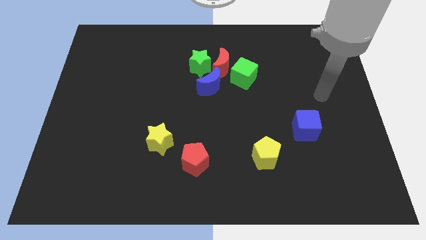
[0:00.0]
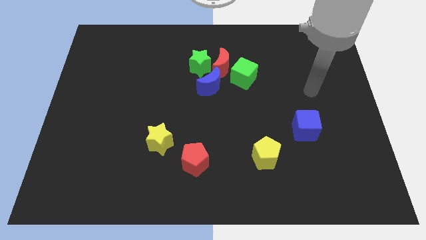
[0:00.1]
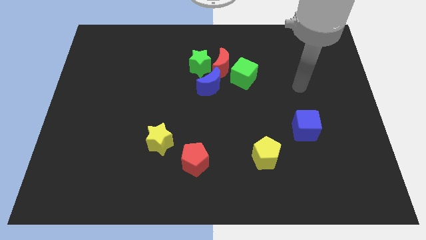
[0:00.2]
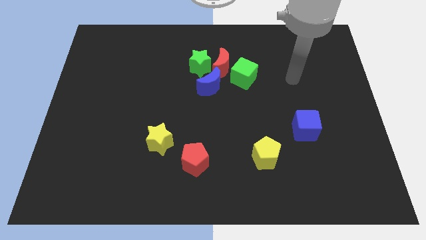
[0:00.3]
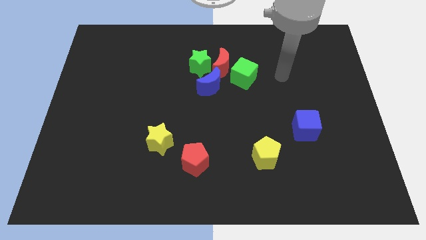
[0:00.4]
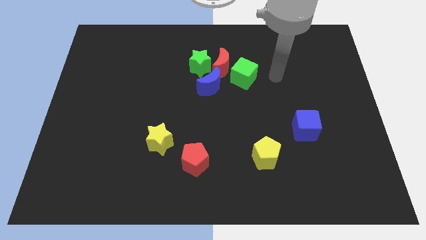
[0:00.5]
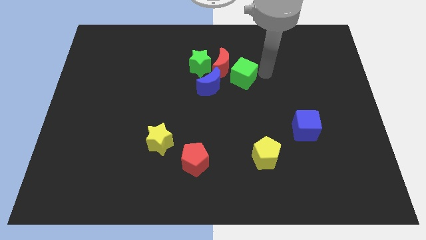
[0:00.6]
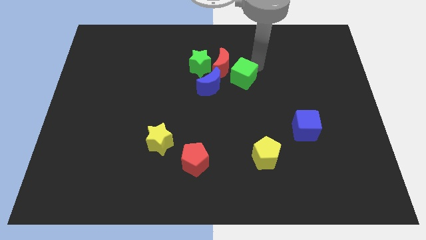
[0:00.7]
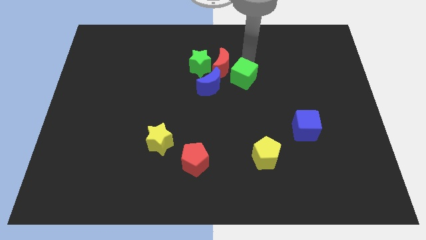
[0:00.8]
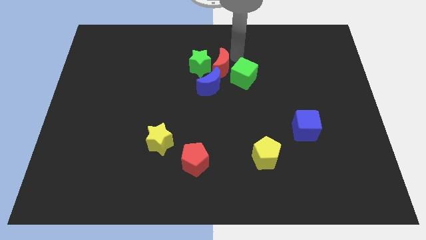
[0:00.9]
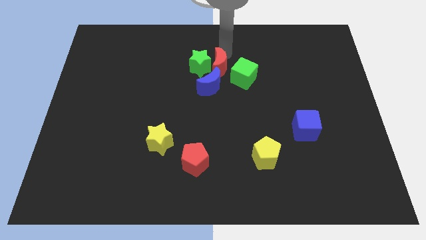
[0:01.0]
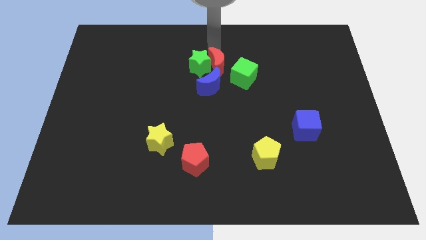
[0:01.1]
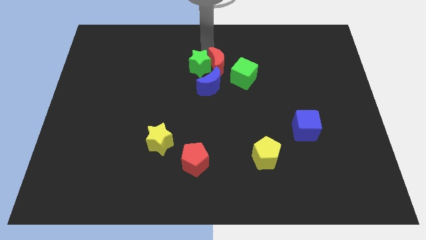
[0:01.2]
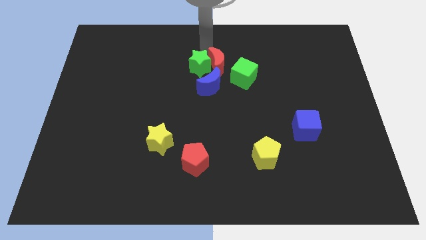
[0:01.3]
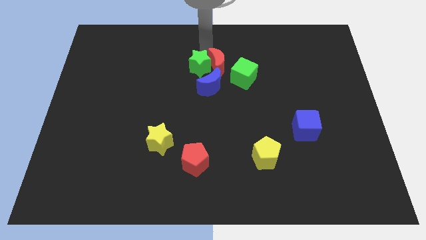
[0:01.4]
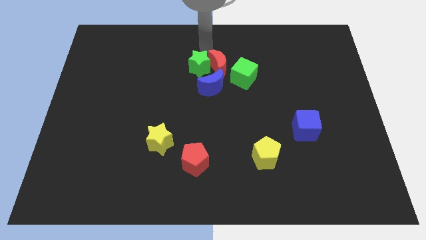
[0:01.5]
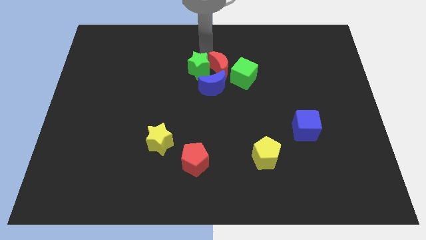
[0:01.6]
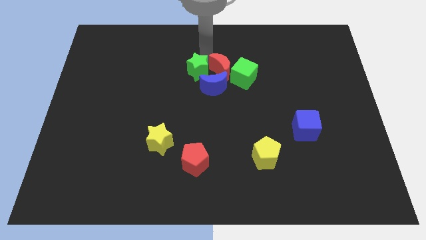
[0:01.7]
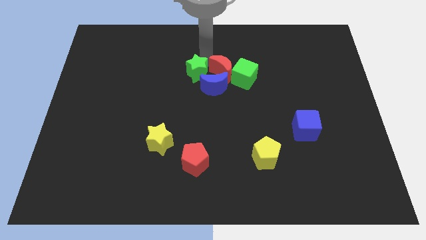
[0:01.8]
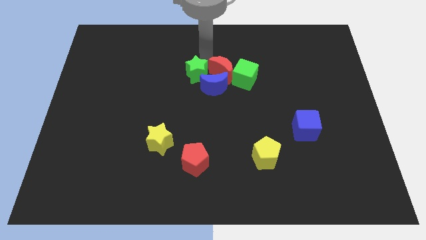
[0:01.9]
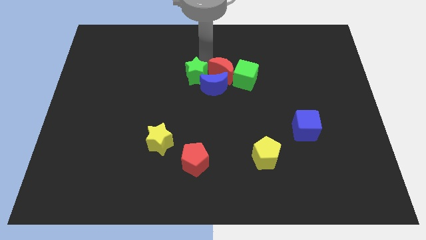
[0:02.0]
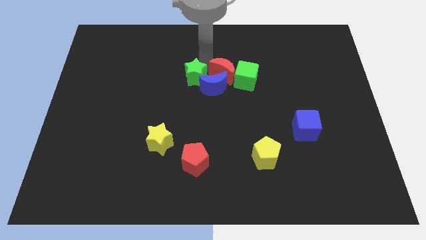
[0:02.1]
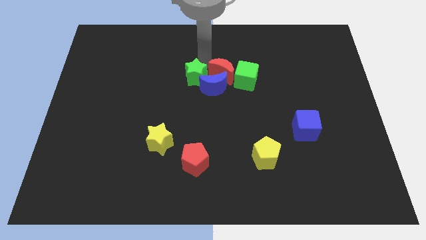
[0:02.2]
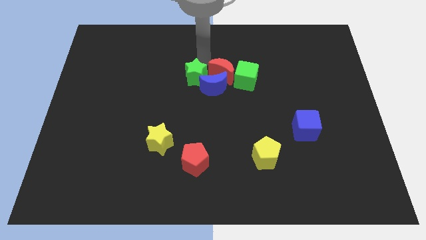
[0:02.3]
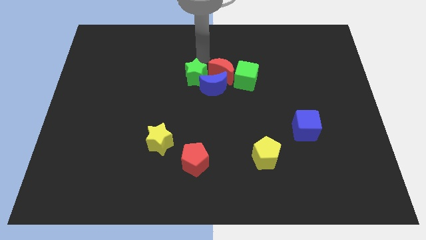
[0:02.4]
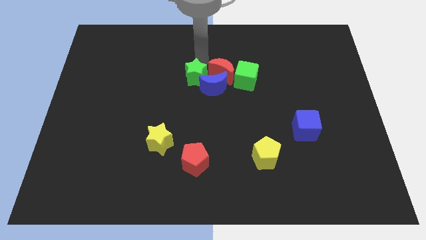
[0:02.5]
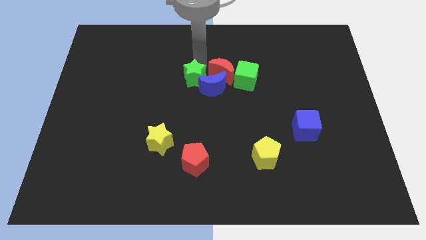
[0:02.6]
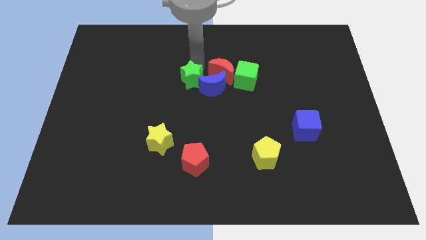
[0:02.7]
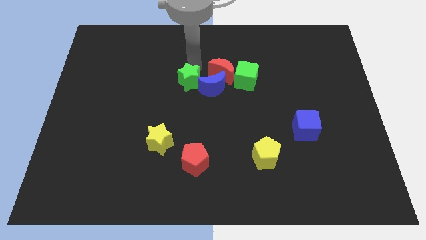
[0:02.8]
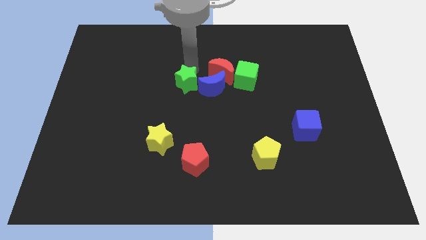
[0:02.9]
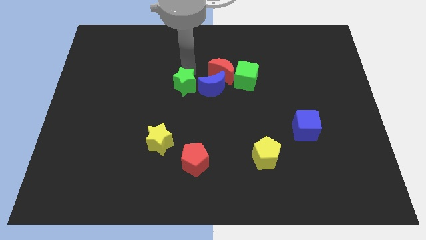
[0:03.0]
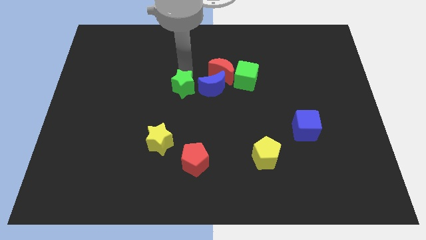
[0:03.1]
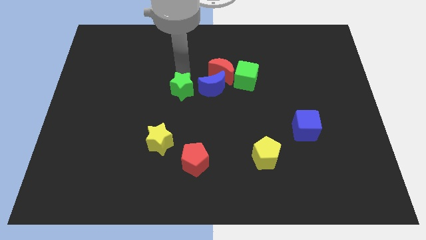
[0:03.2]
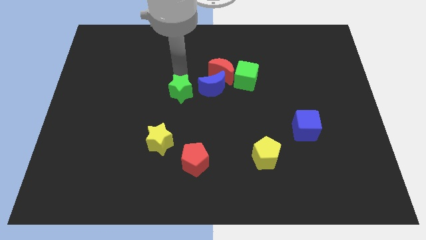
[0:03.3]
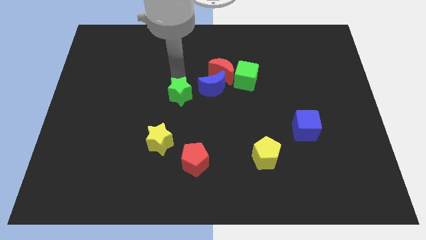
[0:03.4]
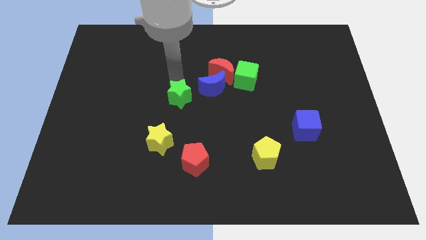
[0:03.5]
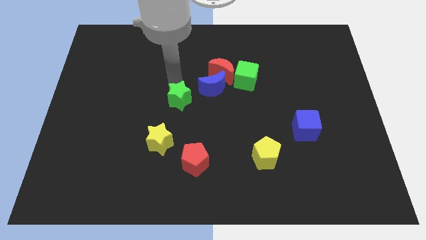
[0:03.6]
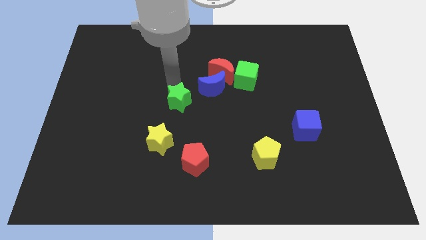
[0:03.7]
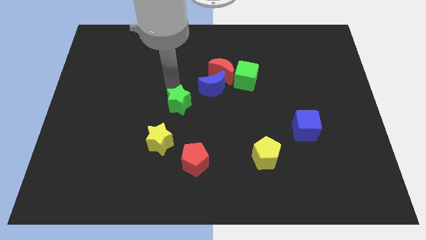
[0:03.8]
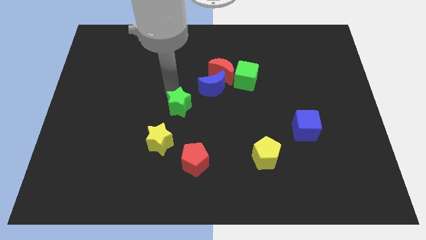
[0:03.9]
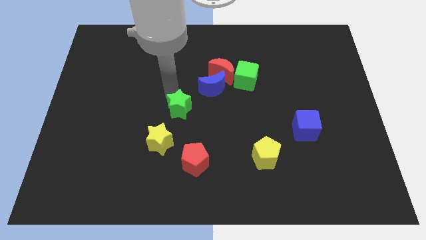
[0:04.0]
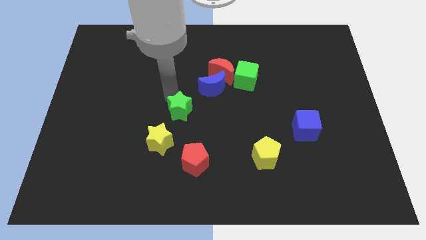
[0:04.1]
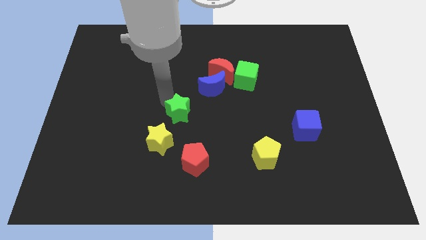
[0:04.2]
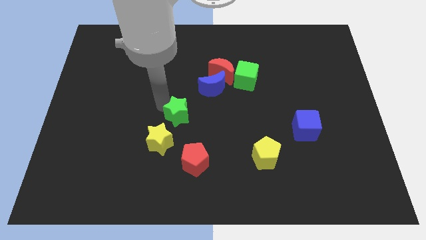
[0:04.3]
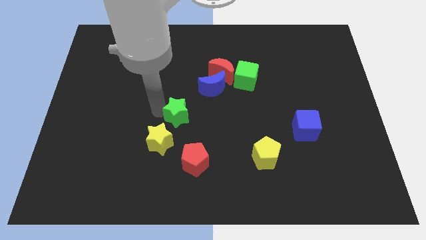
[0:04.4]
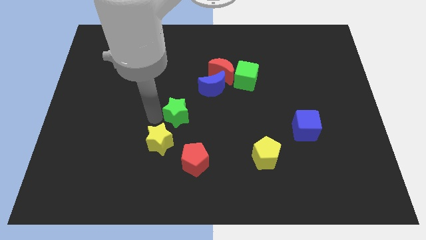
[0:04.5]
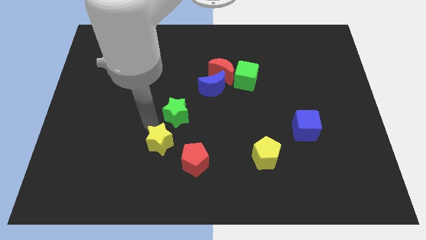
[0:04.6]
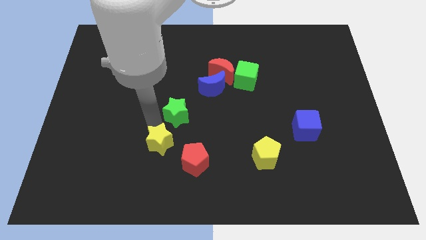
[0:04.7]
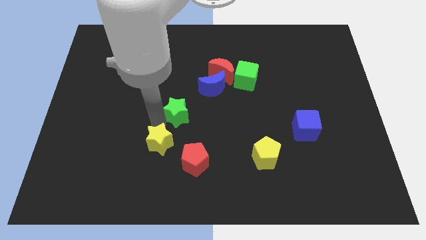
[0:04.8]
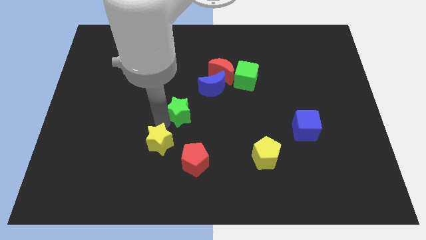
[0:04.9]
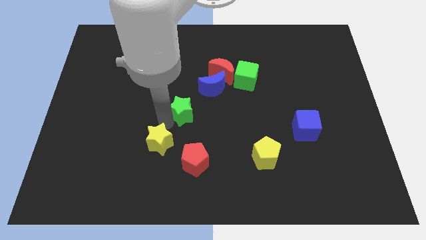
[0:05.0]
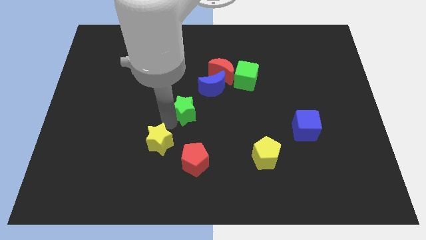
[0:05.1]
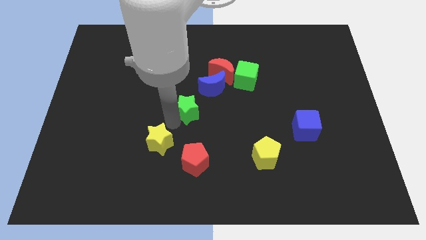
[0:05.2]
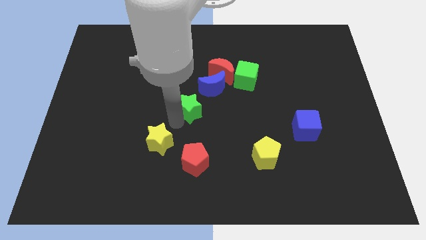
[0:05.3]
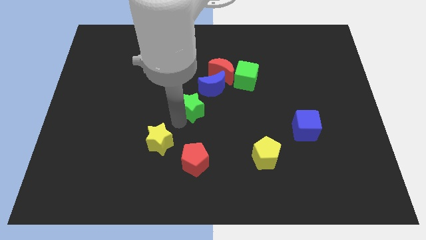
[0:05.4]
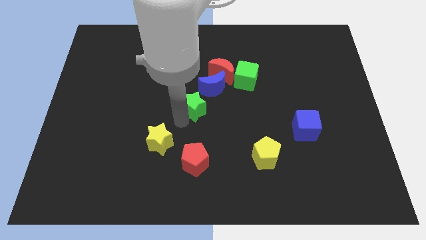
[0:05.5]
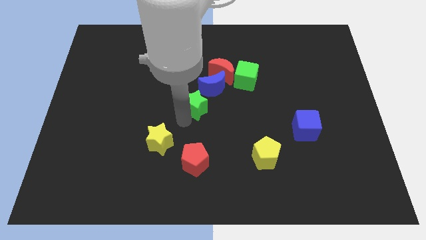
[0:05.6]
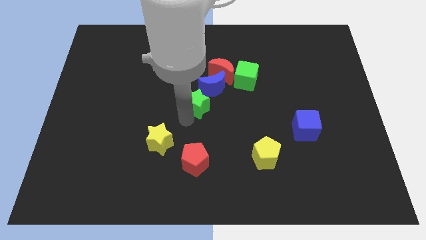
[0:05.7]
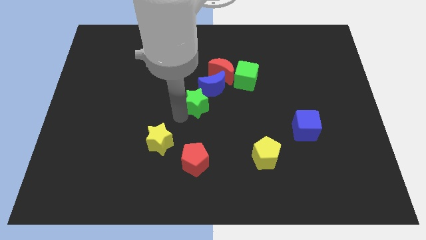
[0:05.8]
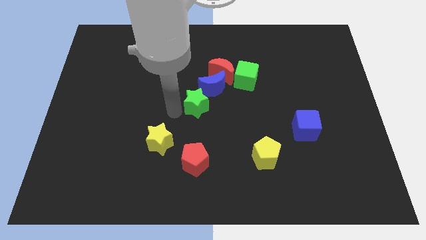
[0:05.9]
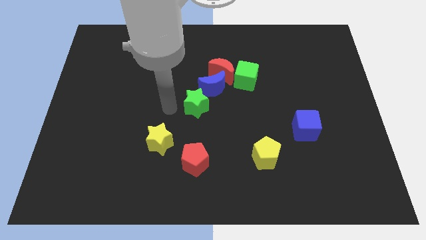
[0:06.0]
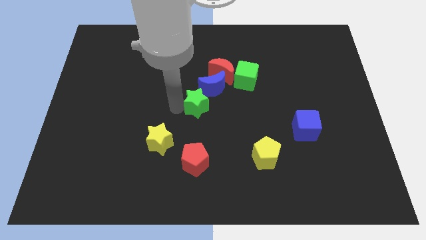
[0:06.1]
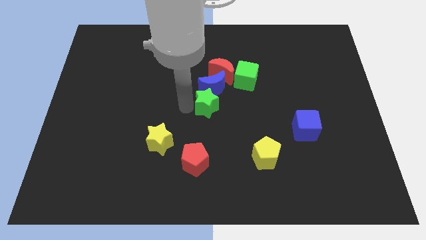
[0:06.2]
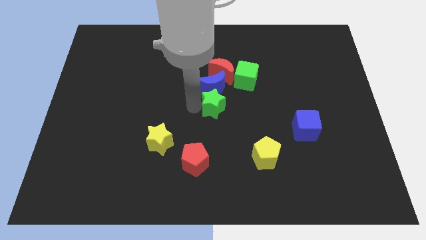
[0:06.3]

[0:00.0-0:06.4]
push the green star to the bottom right side of the blue moon
